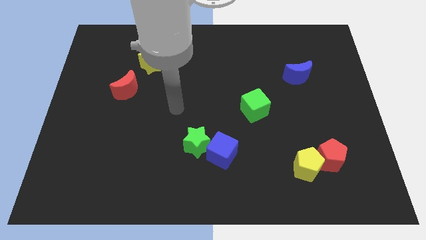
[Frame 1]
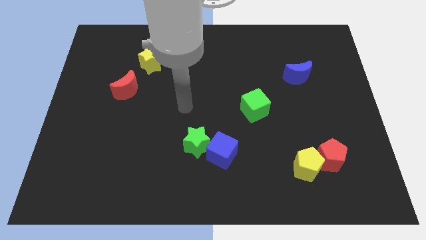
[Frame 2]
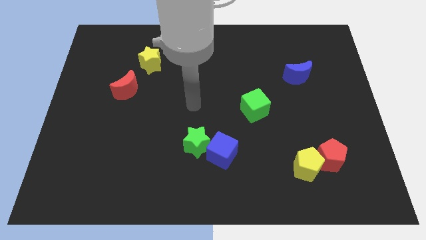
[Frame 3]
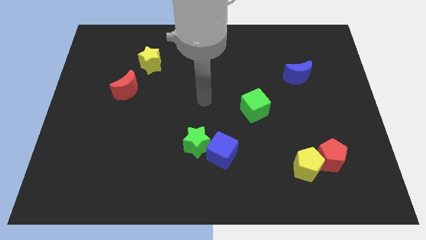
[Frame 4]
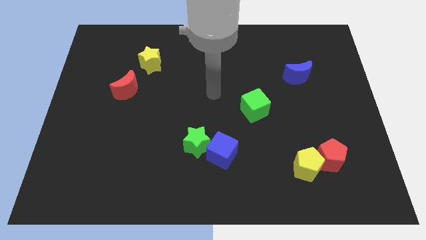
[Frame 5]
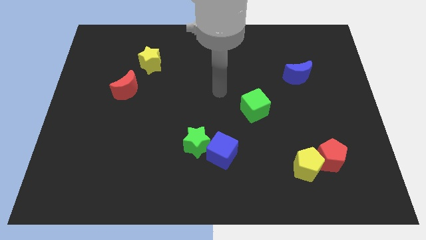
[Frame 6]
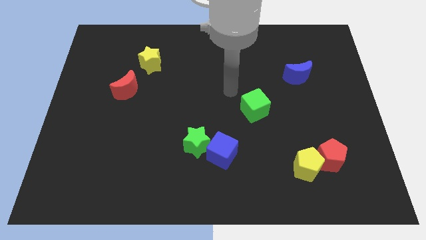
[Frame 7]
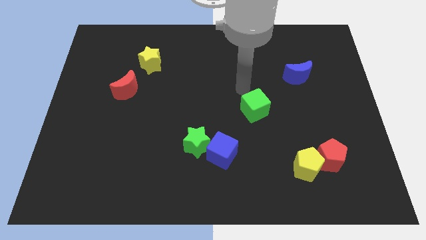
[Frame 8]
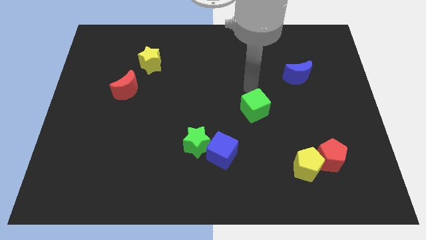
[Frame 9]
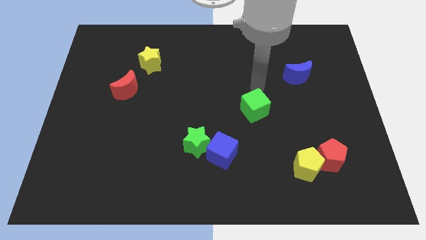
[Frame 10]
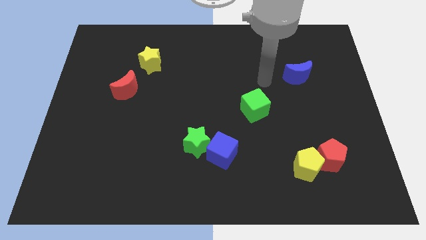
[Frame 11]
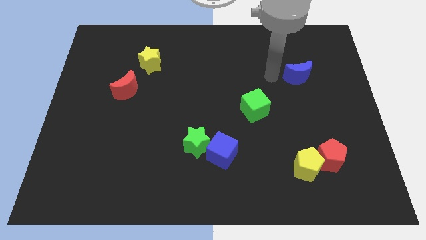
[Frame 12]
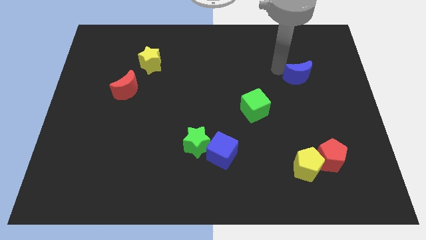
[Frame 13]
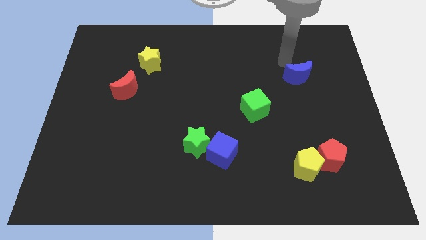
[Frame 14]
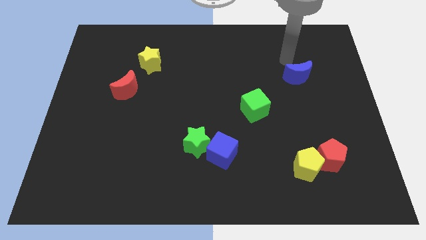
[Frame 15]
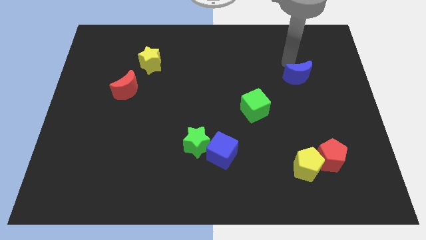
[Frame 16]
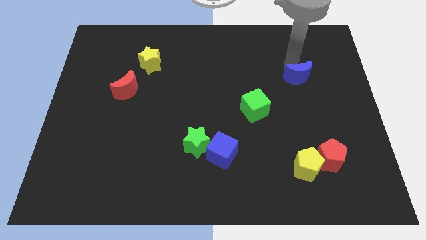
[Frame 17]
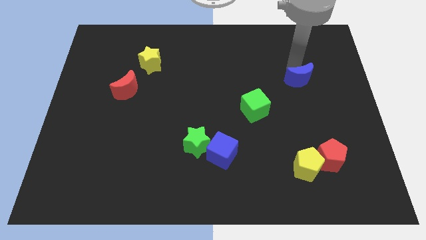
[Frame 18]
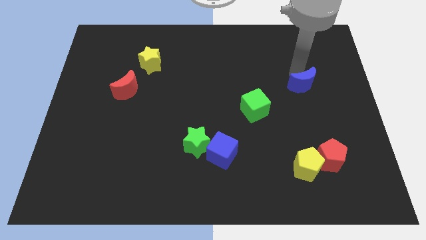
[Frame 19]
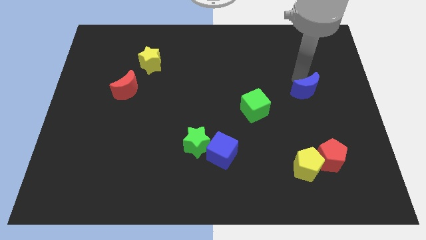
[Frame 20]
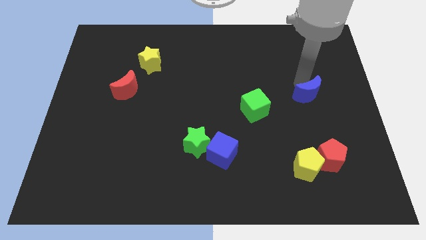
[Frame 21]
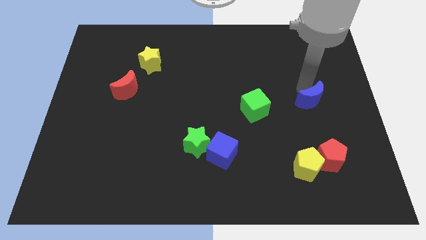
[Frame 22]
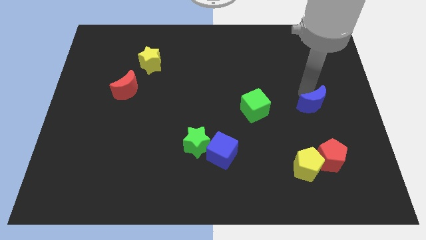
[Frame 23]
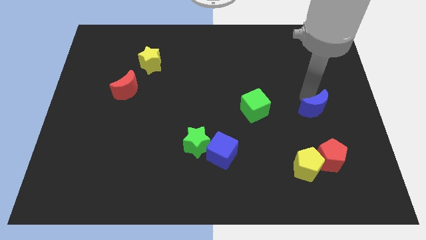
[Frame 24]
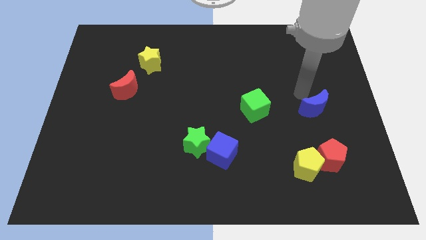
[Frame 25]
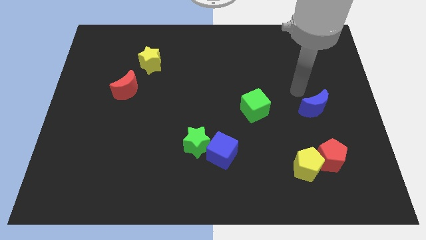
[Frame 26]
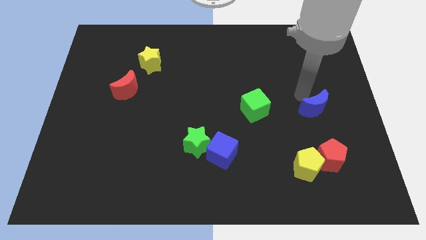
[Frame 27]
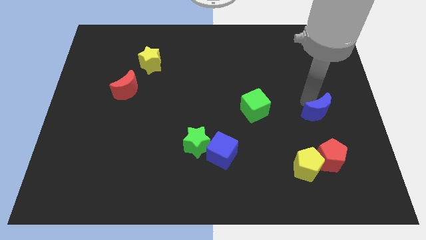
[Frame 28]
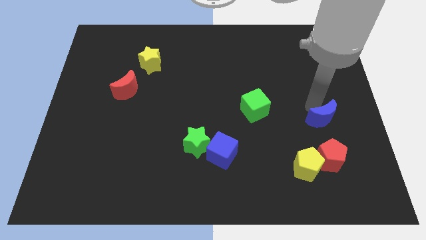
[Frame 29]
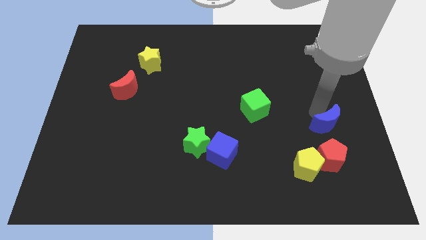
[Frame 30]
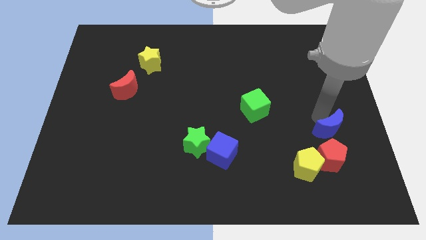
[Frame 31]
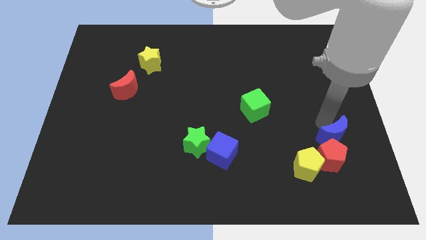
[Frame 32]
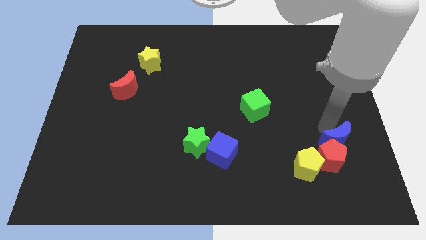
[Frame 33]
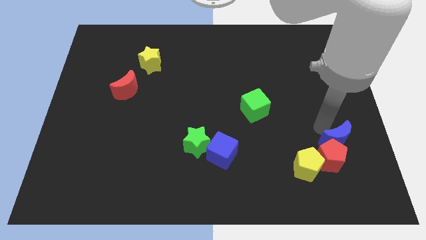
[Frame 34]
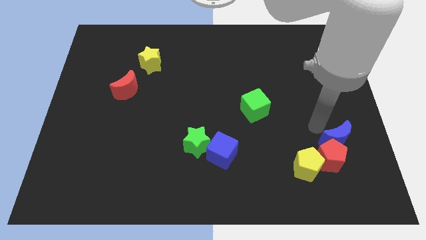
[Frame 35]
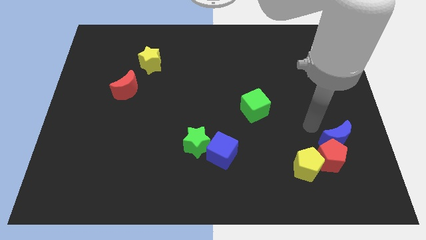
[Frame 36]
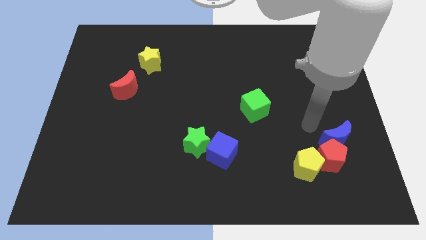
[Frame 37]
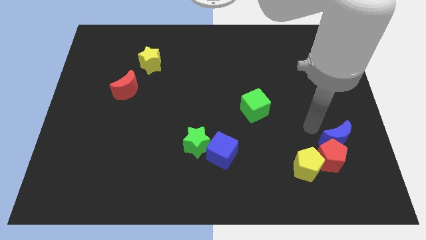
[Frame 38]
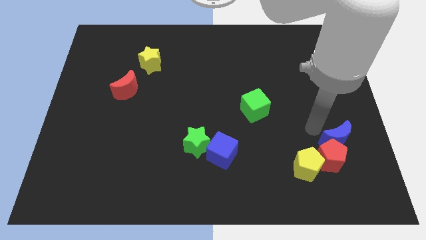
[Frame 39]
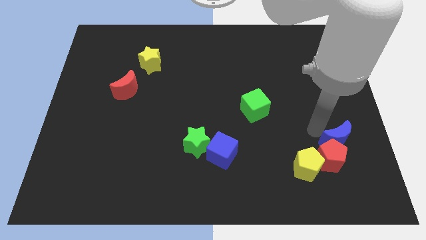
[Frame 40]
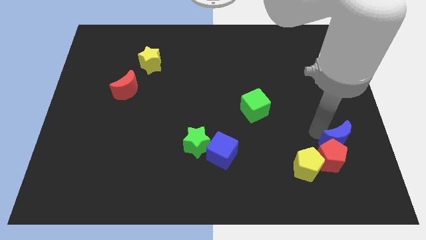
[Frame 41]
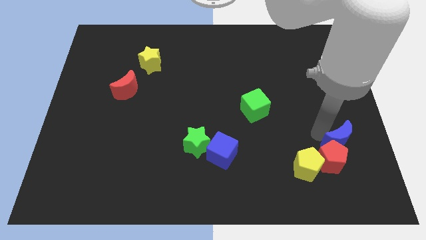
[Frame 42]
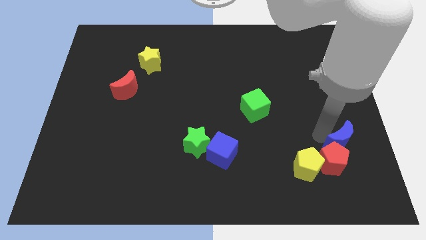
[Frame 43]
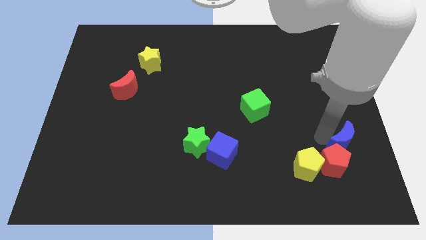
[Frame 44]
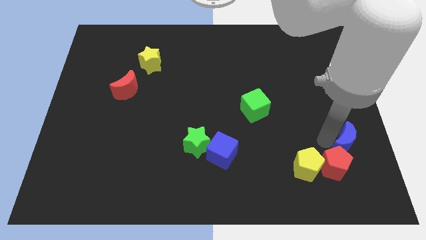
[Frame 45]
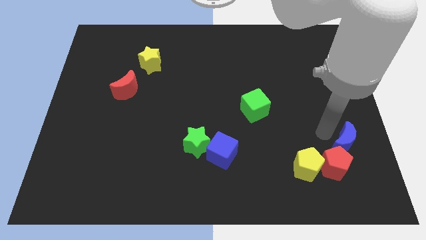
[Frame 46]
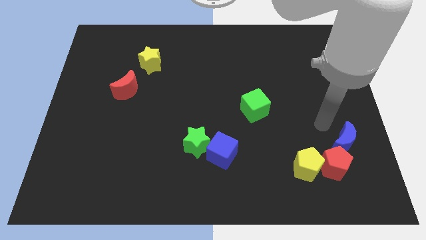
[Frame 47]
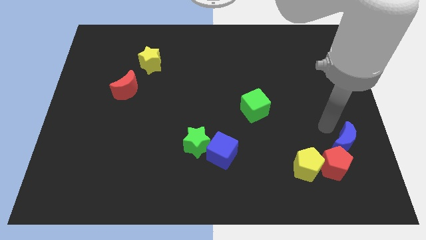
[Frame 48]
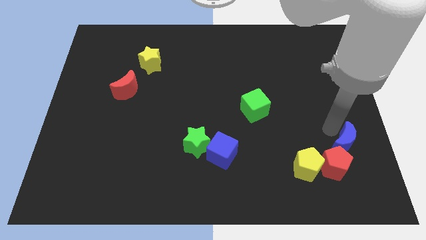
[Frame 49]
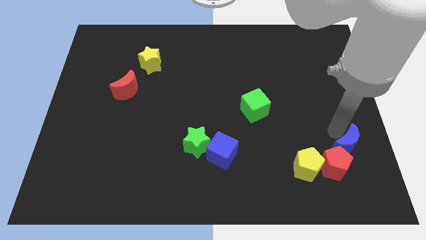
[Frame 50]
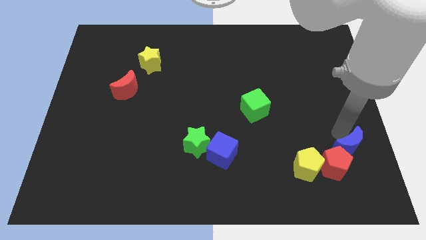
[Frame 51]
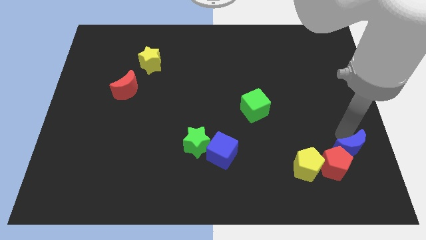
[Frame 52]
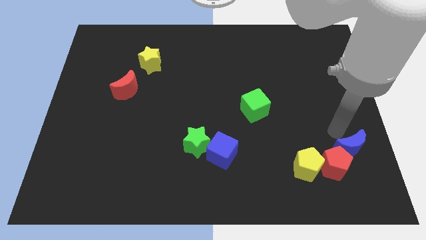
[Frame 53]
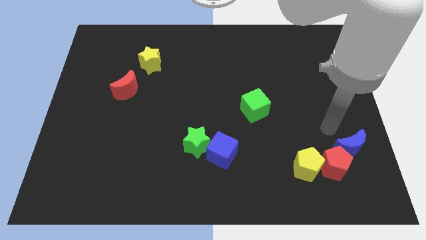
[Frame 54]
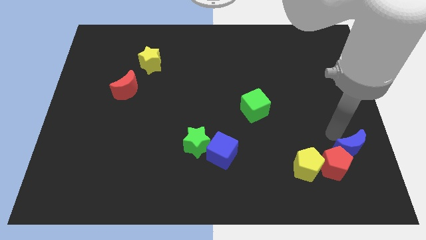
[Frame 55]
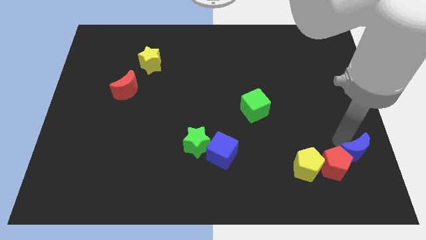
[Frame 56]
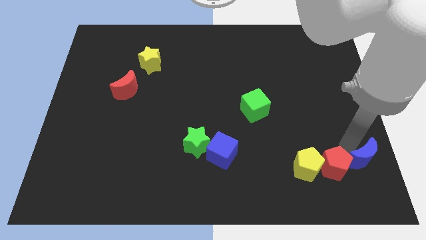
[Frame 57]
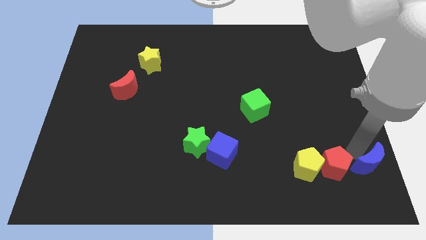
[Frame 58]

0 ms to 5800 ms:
move the blue moon to the lower right corner
